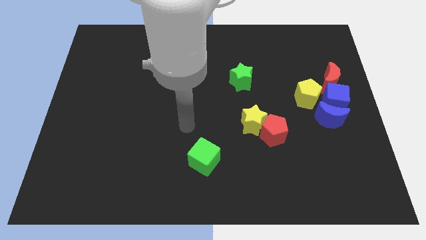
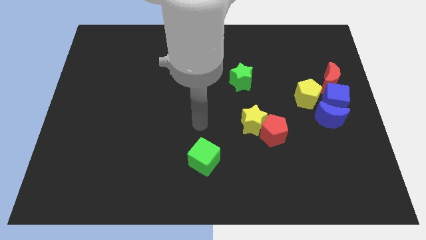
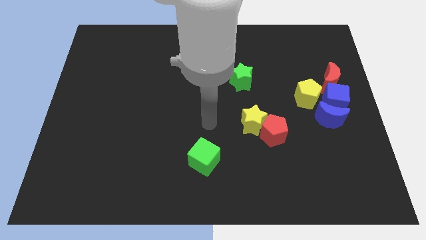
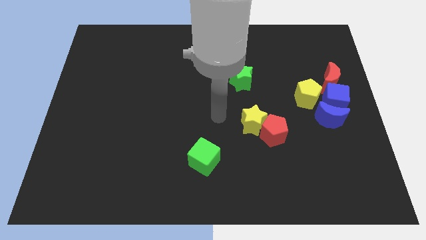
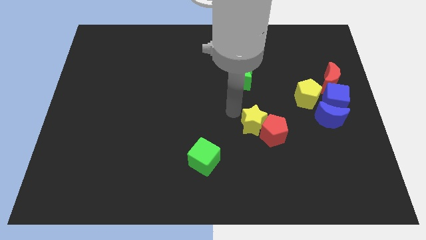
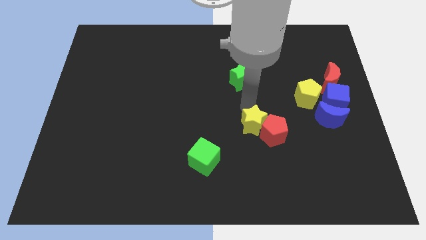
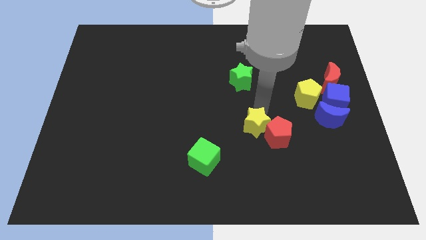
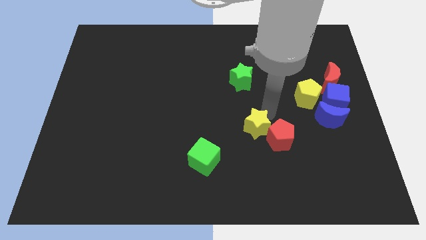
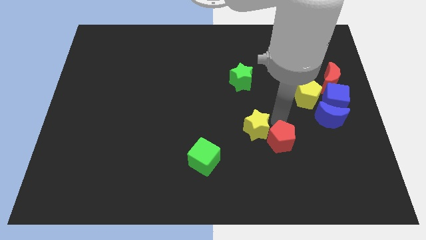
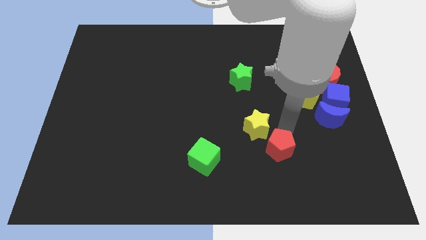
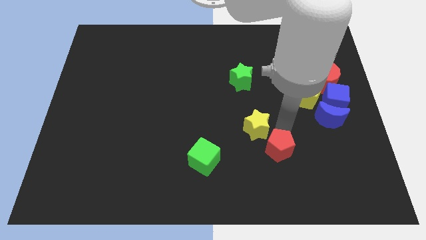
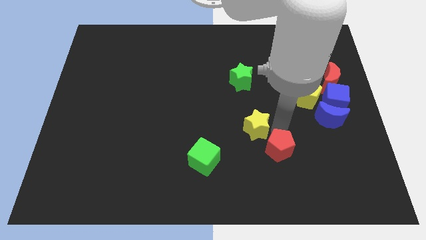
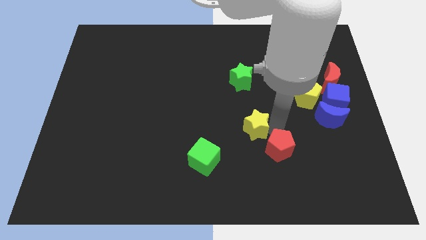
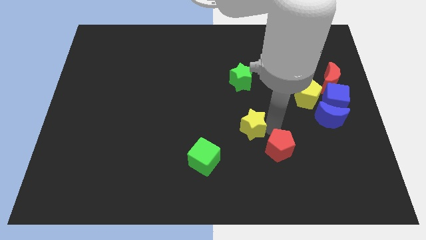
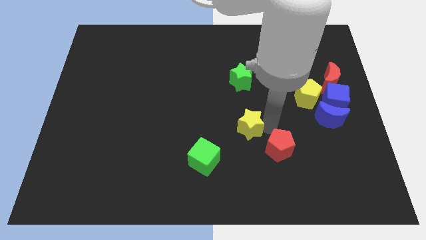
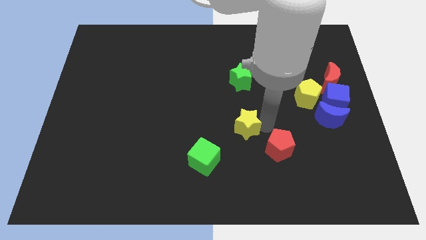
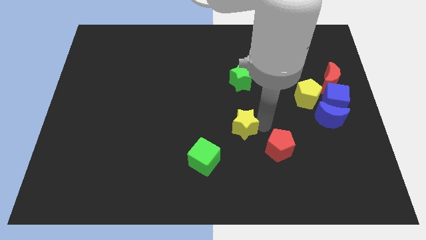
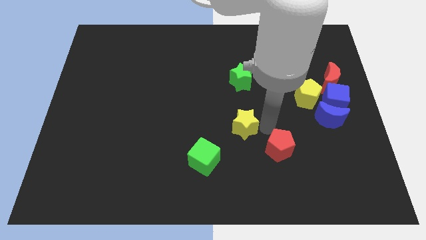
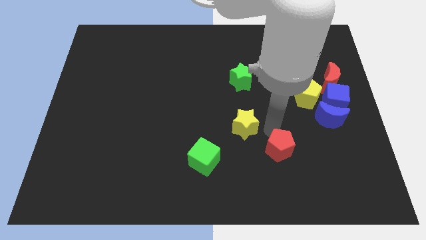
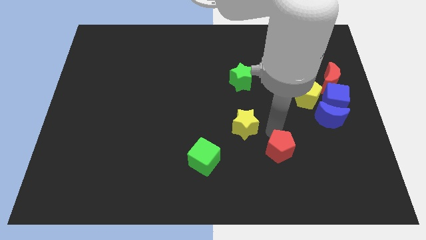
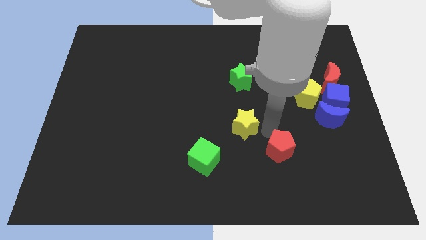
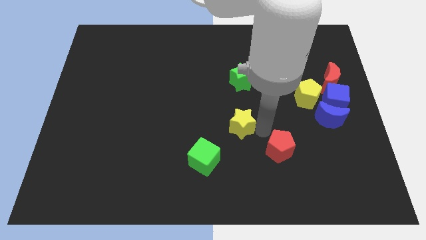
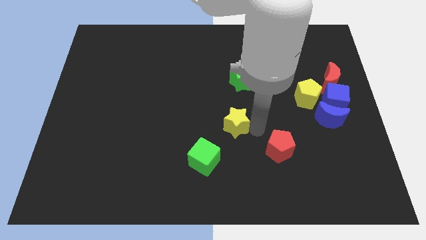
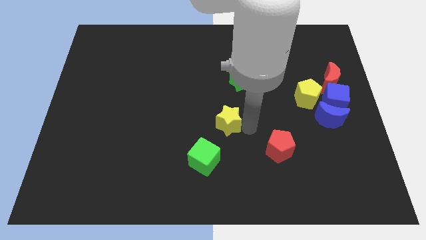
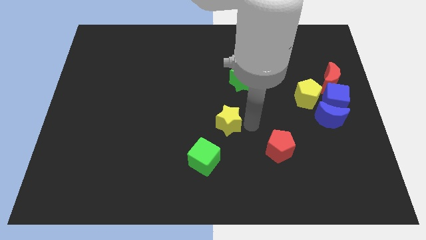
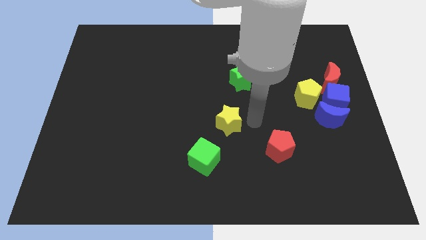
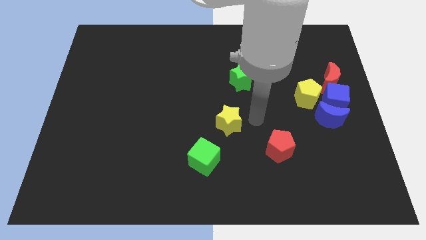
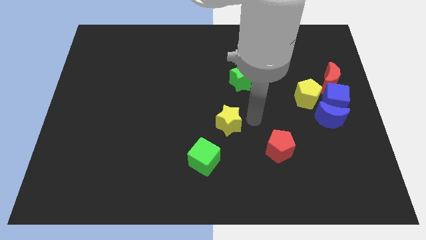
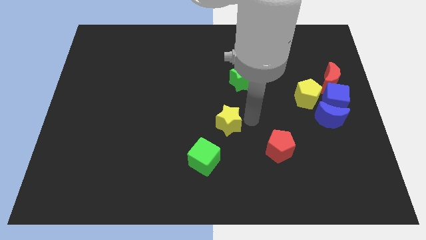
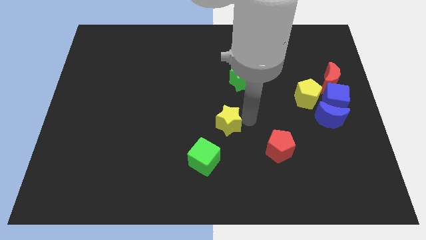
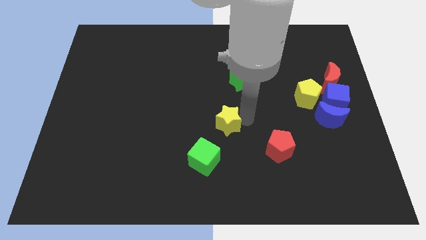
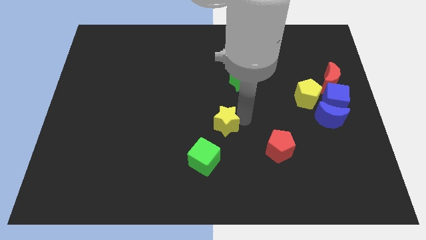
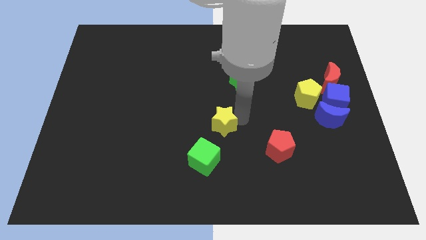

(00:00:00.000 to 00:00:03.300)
slightly move the yellow star to the left

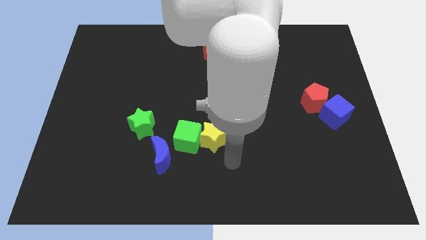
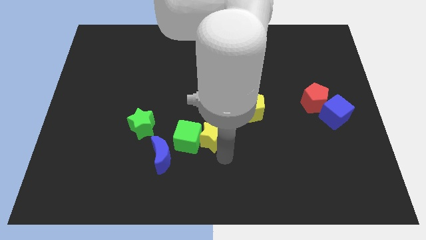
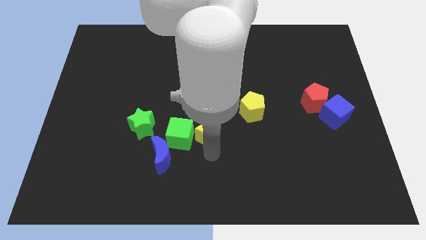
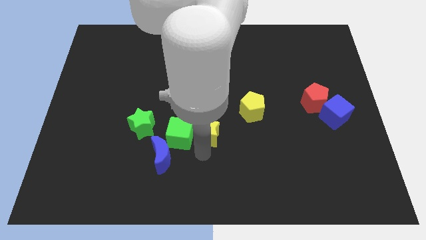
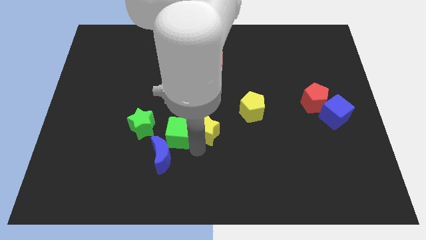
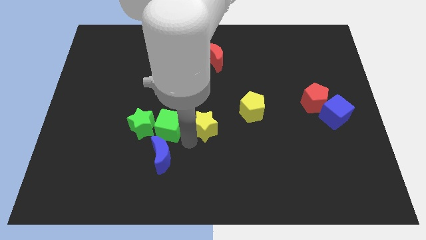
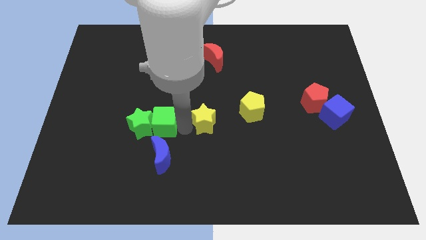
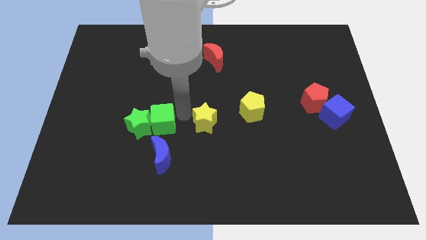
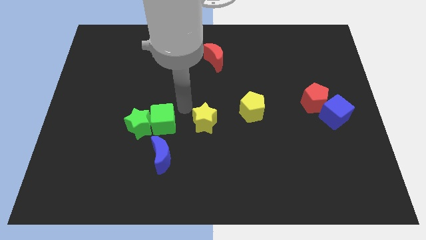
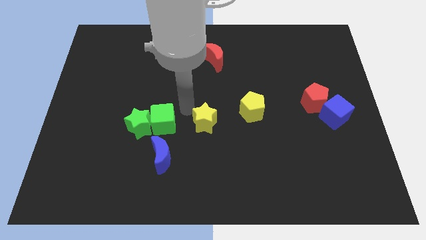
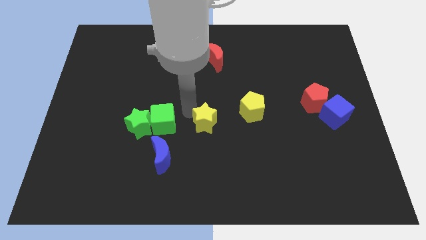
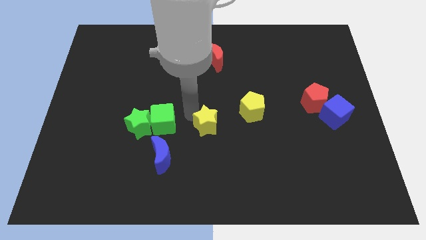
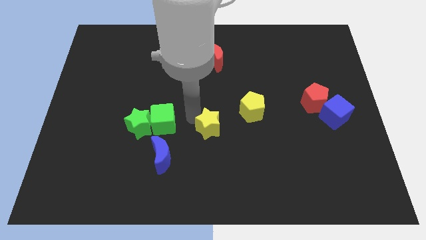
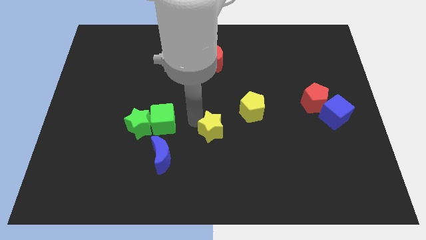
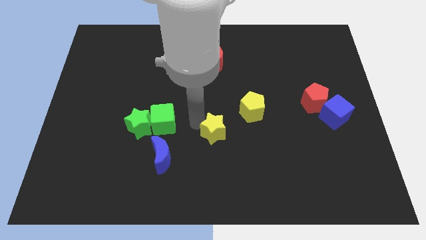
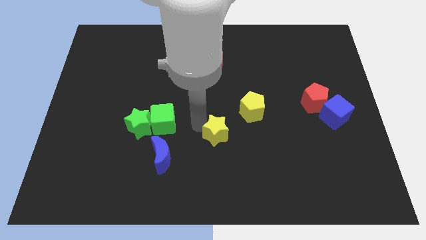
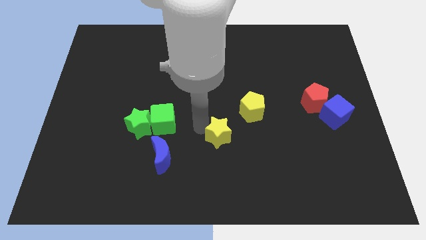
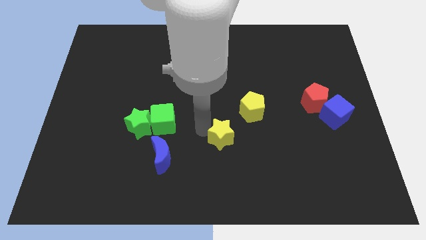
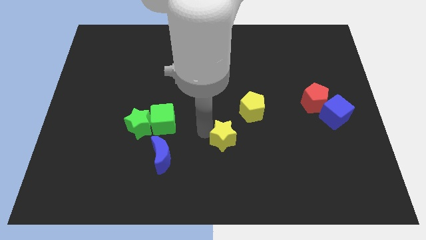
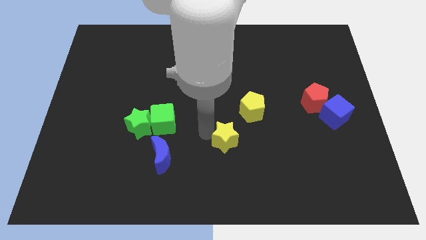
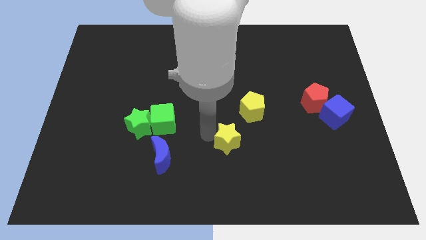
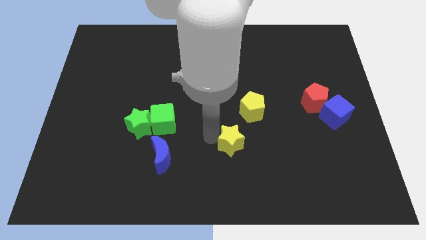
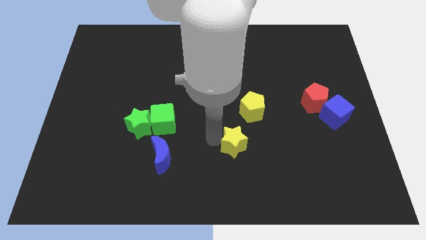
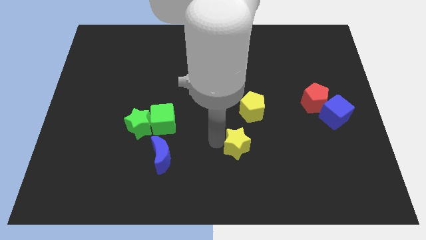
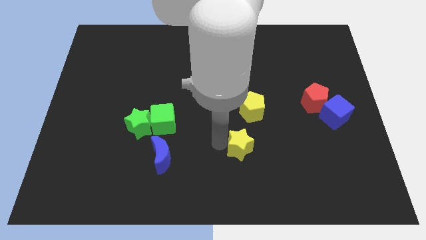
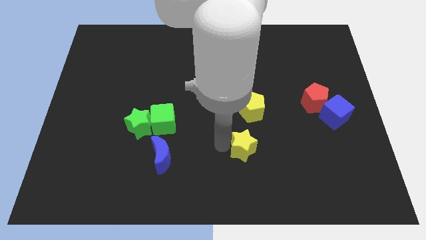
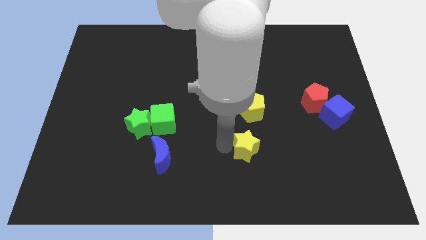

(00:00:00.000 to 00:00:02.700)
move the yellow star right a little

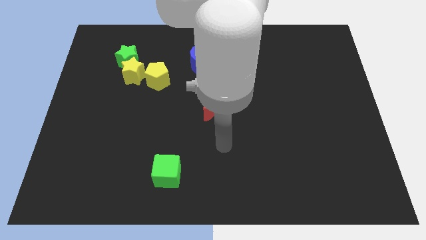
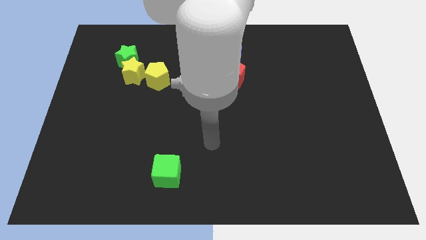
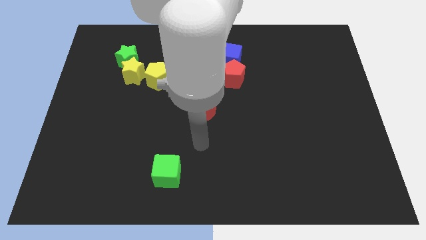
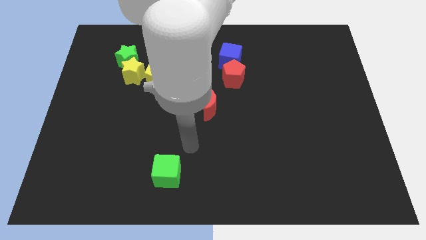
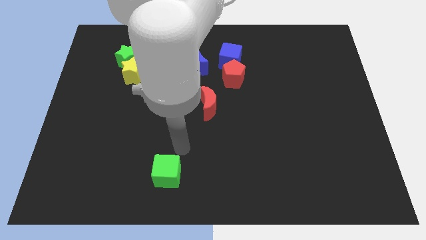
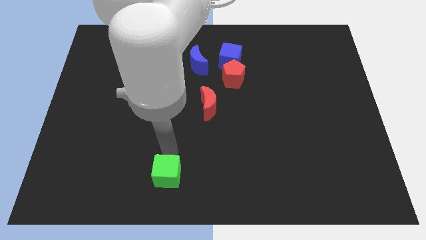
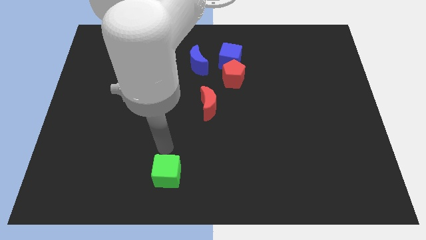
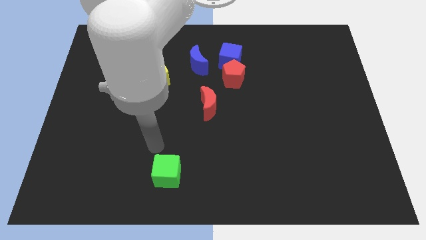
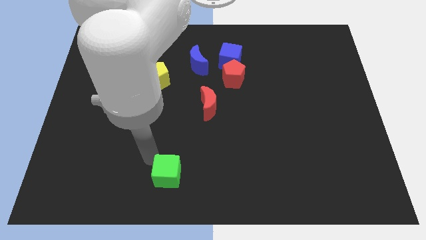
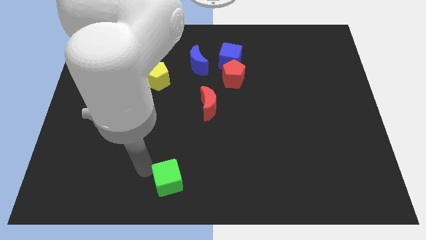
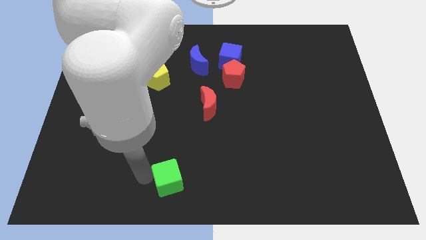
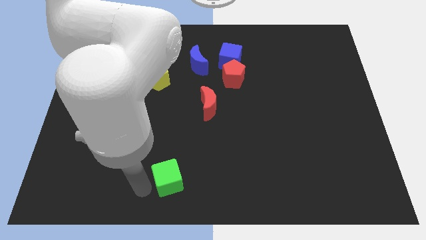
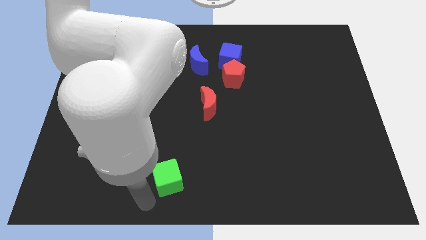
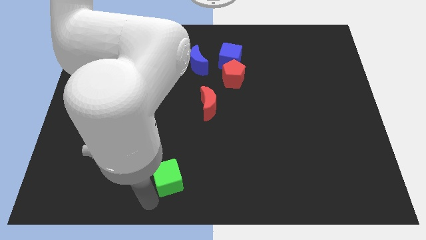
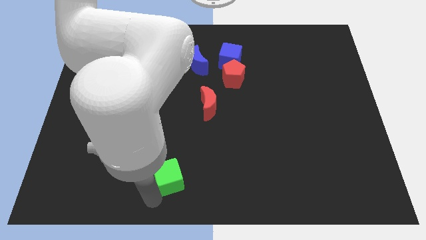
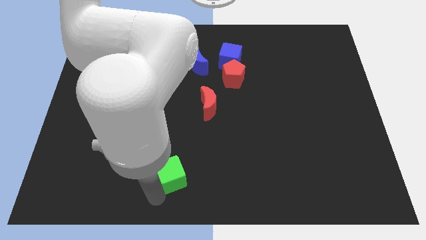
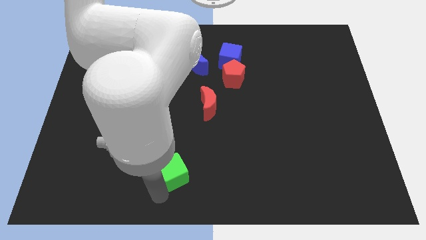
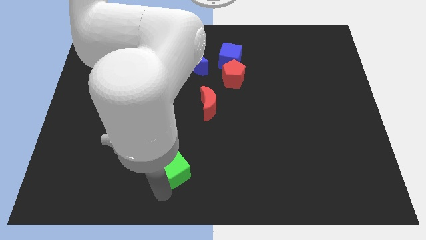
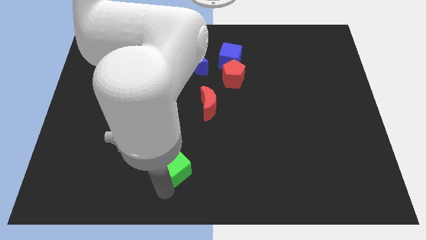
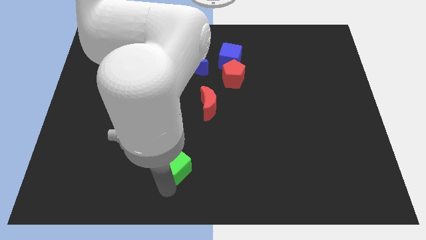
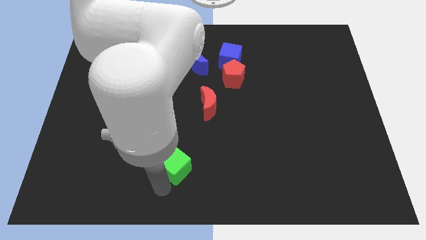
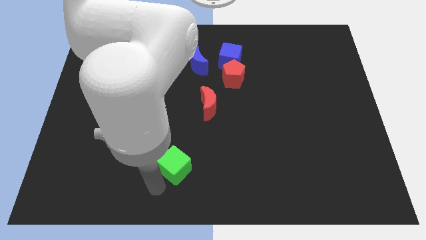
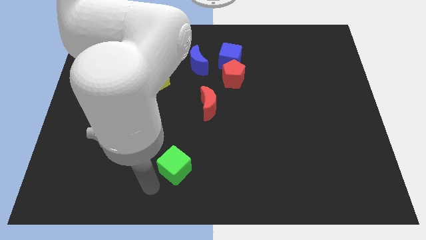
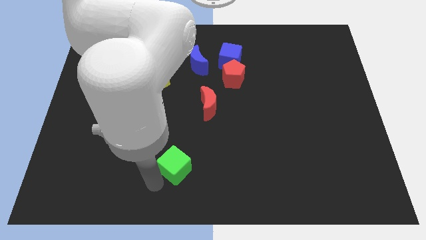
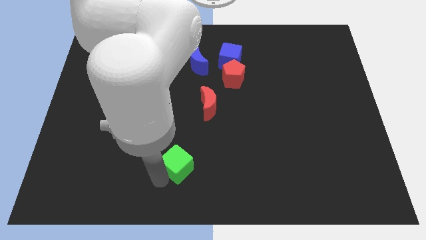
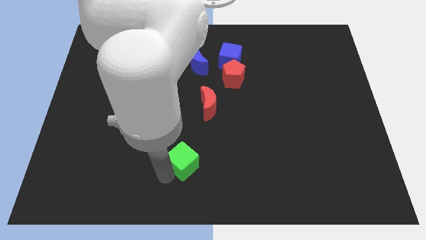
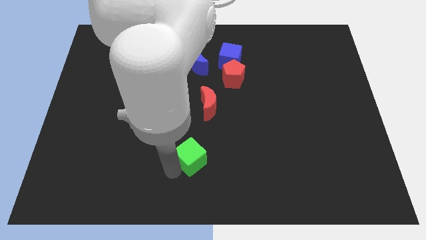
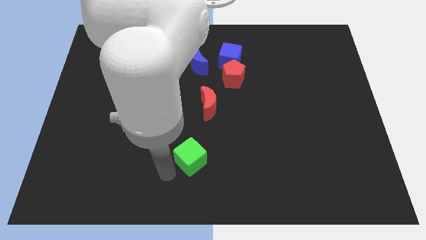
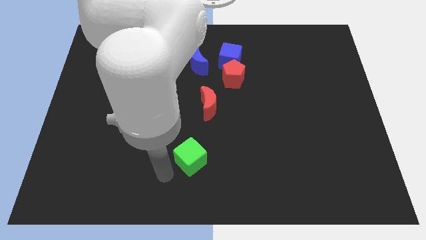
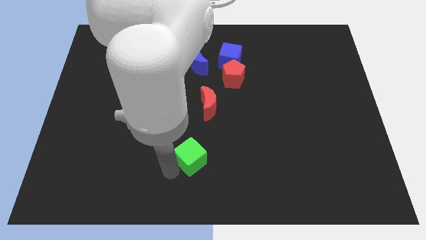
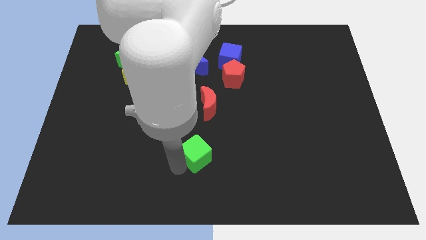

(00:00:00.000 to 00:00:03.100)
slightly move the green cube upwards and then right
